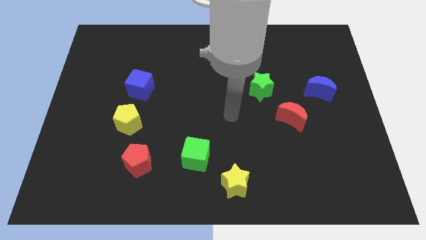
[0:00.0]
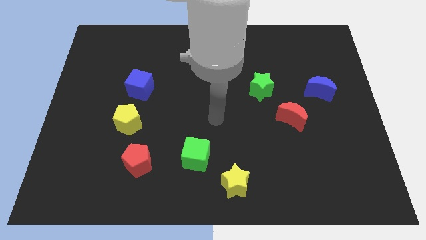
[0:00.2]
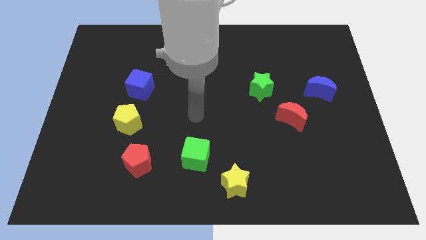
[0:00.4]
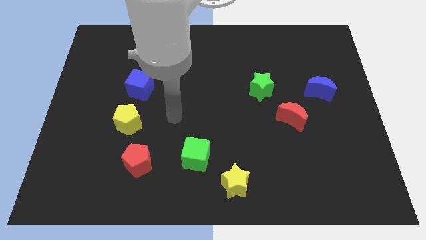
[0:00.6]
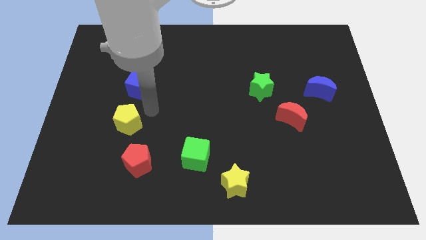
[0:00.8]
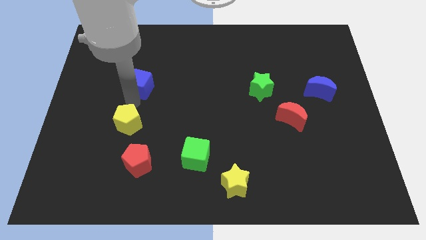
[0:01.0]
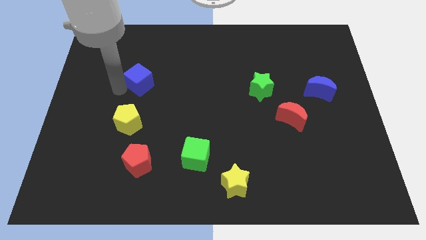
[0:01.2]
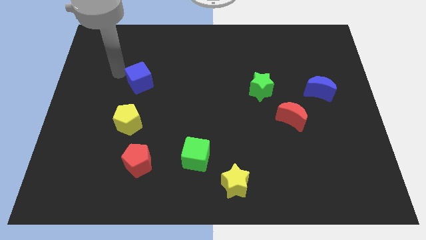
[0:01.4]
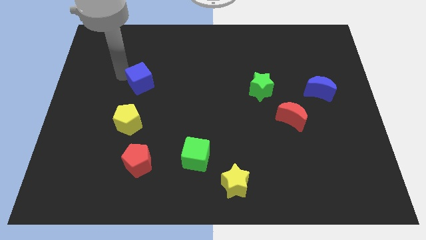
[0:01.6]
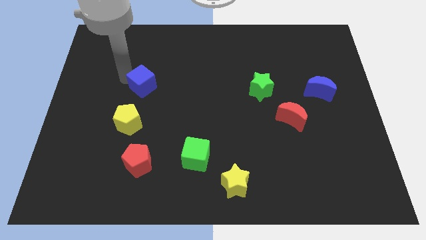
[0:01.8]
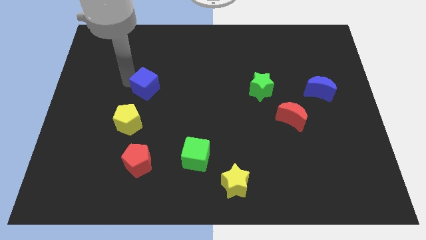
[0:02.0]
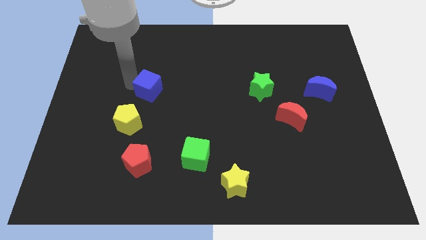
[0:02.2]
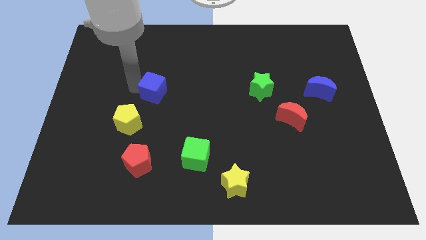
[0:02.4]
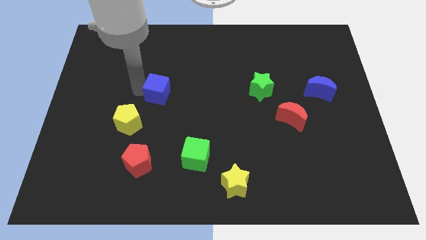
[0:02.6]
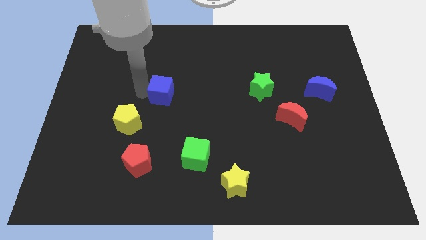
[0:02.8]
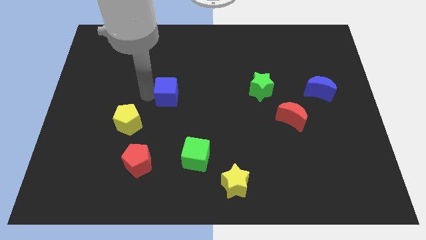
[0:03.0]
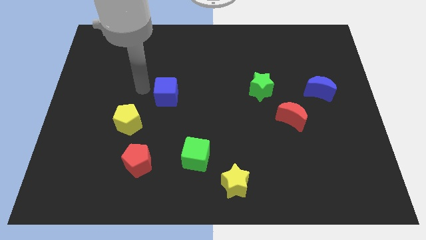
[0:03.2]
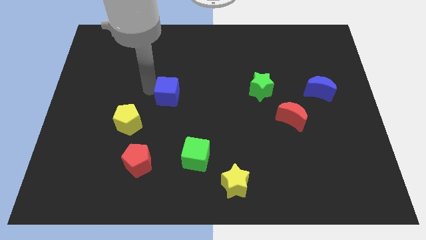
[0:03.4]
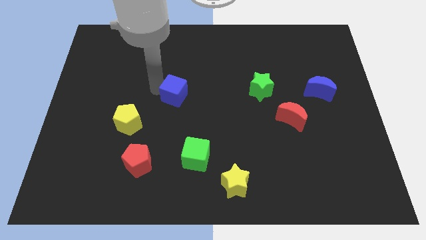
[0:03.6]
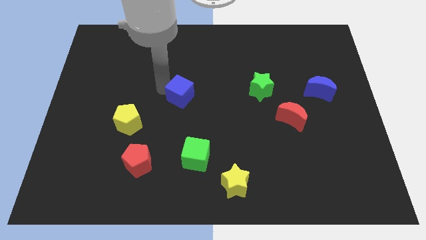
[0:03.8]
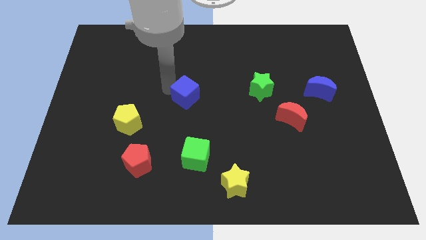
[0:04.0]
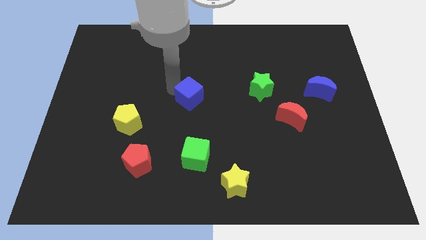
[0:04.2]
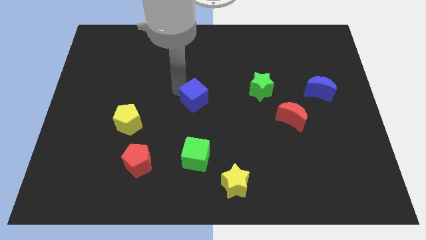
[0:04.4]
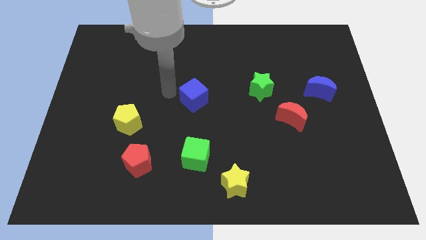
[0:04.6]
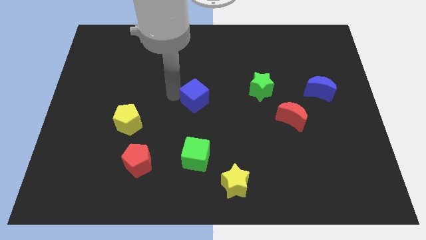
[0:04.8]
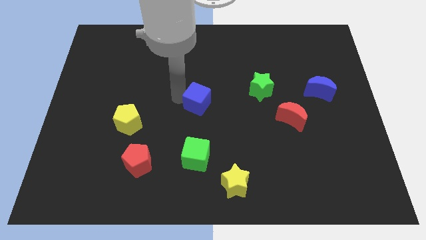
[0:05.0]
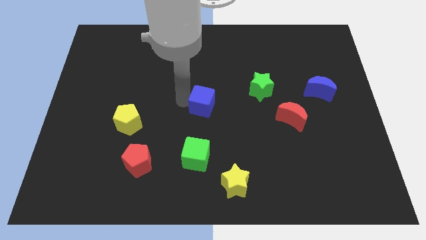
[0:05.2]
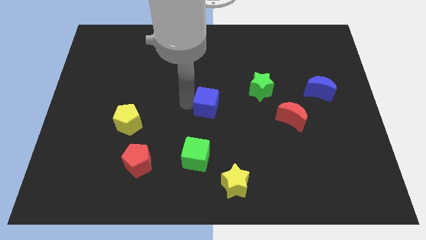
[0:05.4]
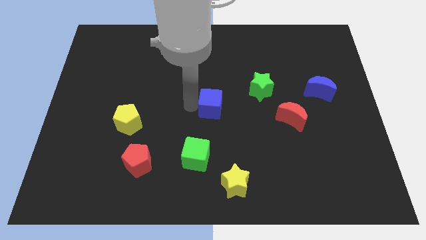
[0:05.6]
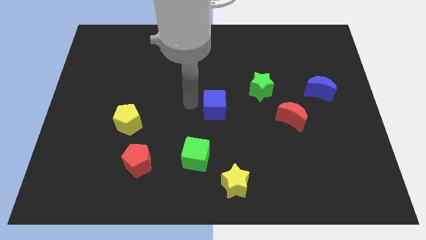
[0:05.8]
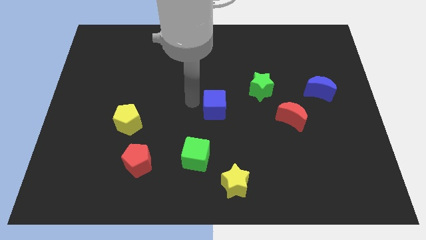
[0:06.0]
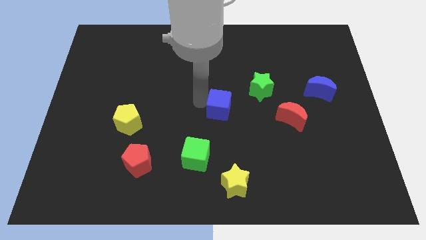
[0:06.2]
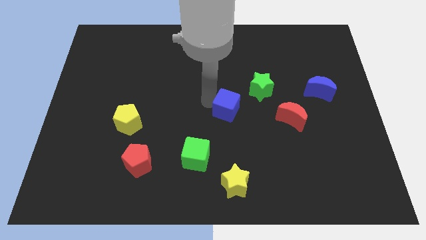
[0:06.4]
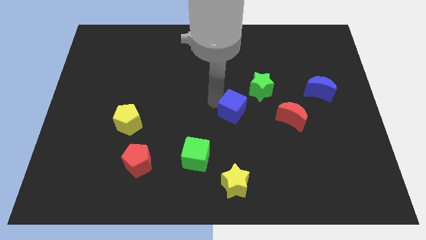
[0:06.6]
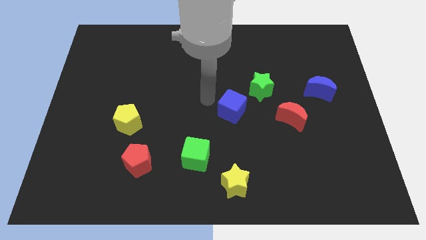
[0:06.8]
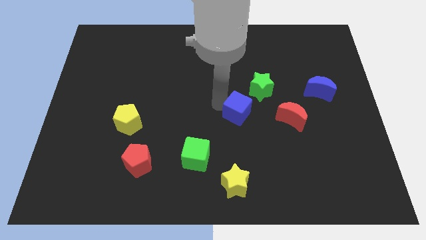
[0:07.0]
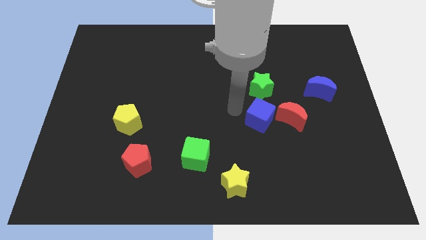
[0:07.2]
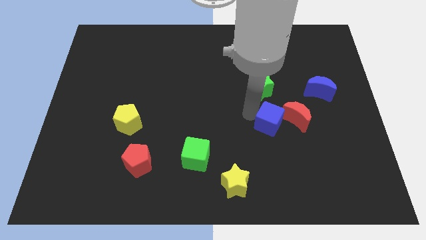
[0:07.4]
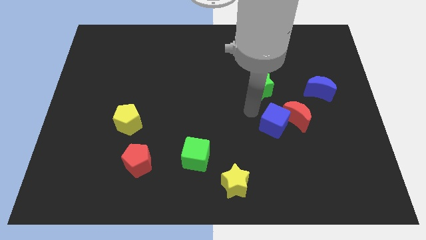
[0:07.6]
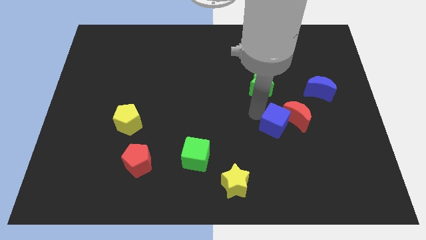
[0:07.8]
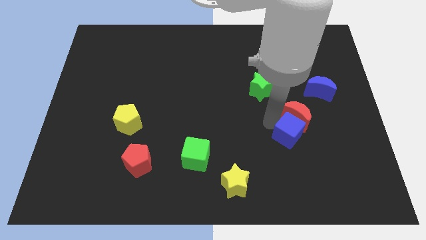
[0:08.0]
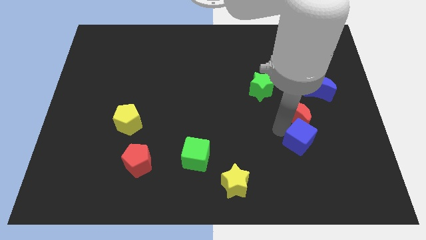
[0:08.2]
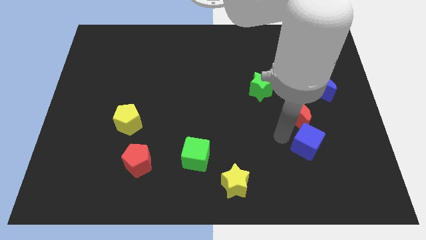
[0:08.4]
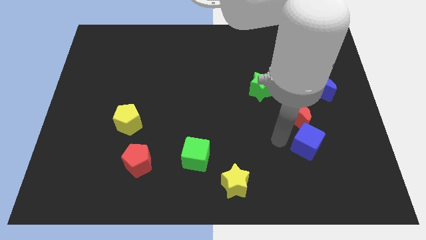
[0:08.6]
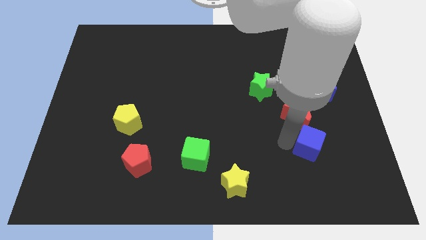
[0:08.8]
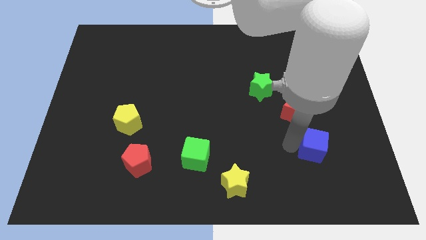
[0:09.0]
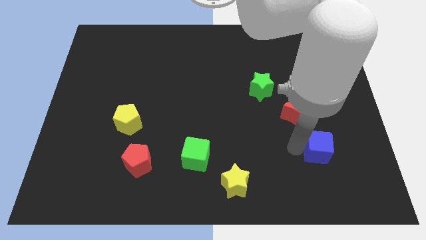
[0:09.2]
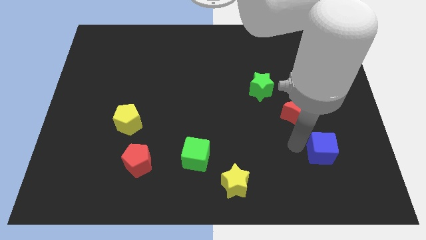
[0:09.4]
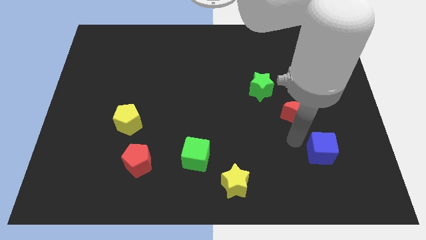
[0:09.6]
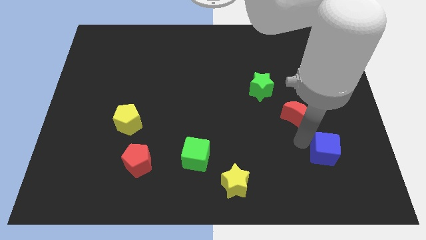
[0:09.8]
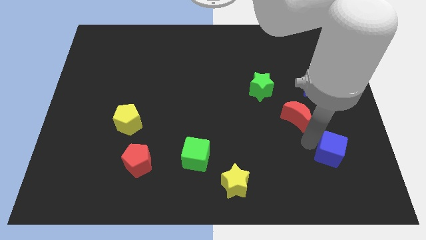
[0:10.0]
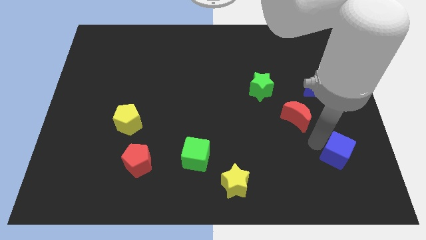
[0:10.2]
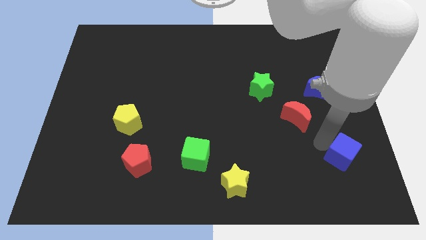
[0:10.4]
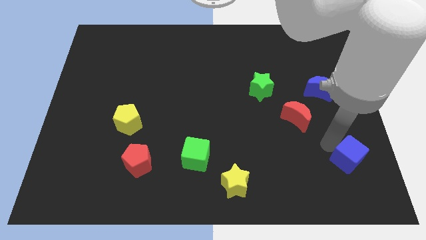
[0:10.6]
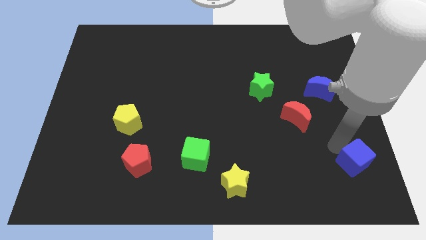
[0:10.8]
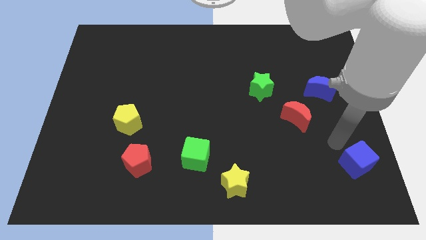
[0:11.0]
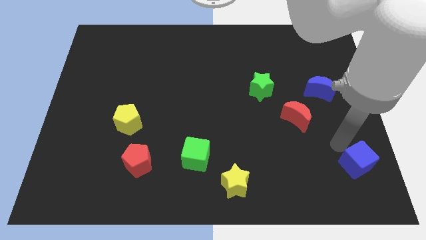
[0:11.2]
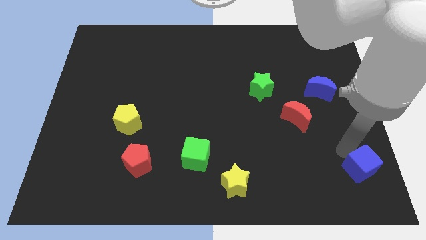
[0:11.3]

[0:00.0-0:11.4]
move the blue cube to the lower right corner

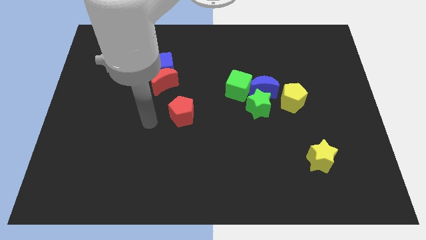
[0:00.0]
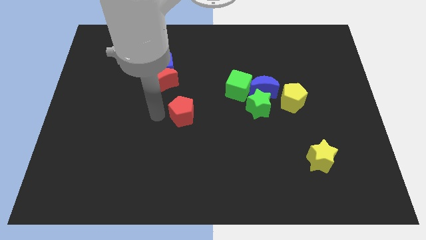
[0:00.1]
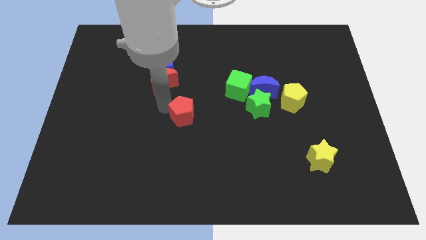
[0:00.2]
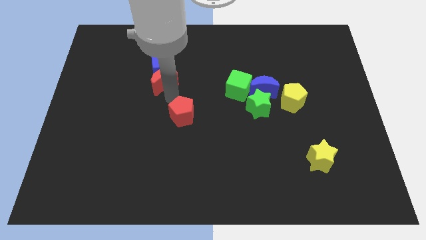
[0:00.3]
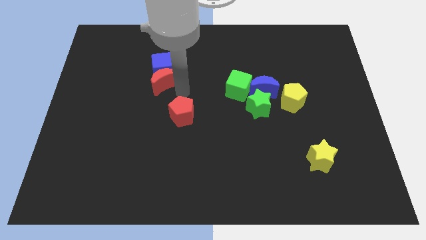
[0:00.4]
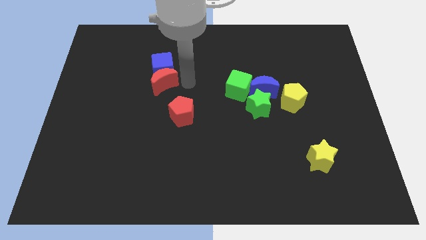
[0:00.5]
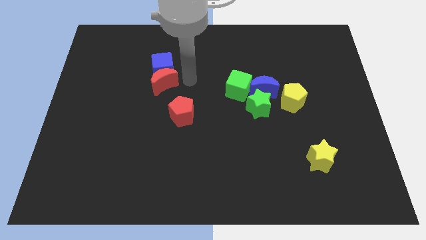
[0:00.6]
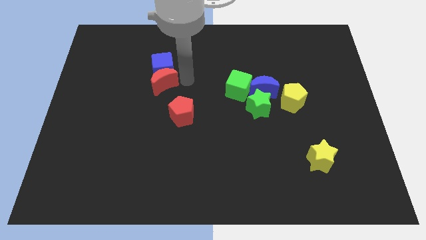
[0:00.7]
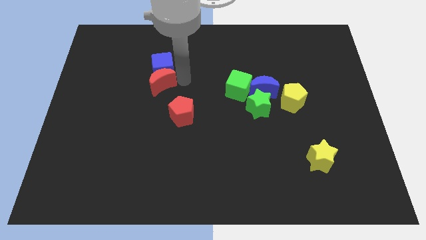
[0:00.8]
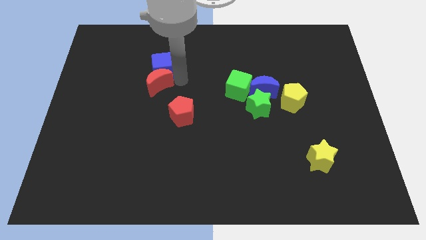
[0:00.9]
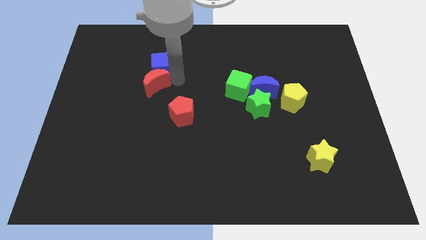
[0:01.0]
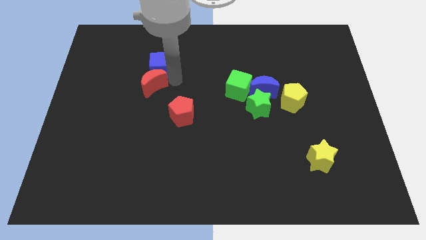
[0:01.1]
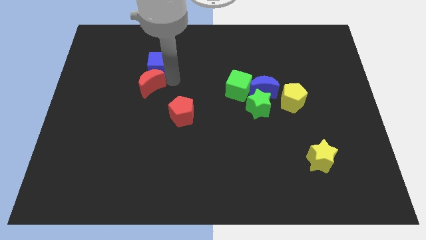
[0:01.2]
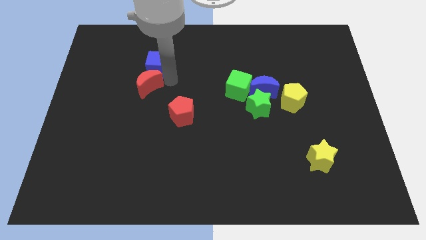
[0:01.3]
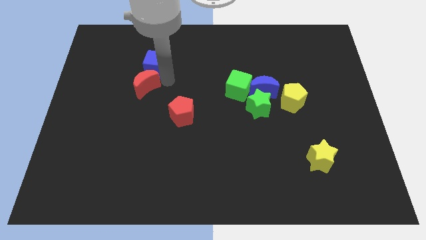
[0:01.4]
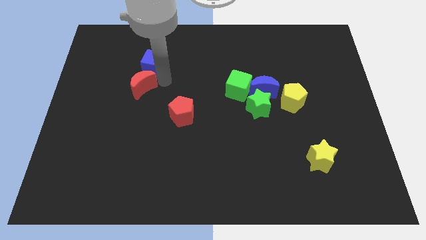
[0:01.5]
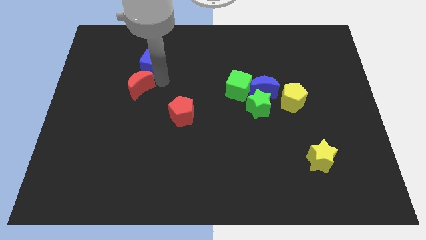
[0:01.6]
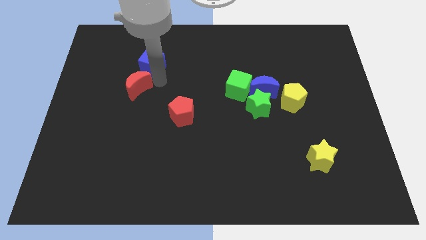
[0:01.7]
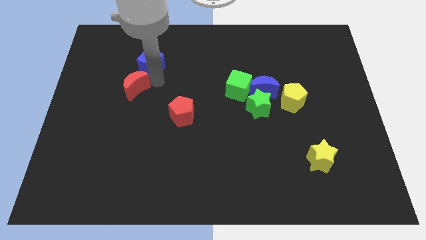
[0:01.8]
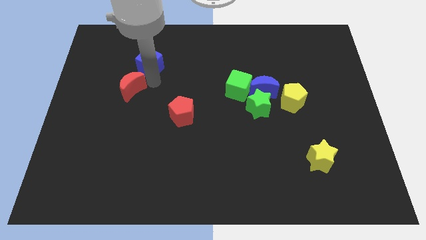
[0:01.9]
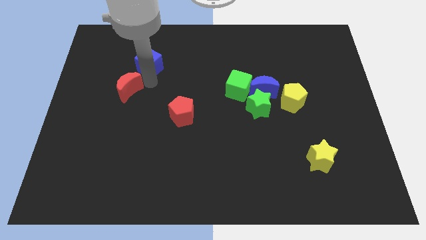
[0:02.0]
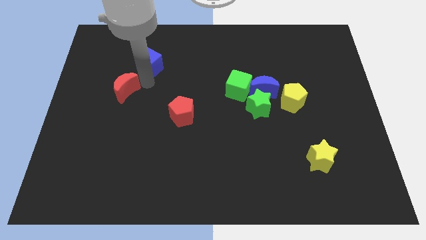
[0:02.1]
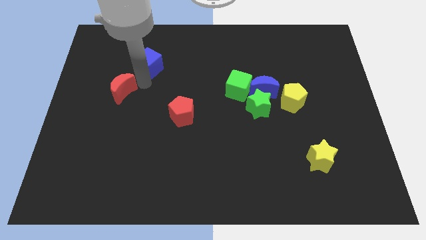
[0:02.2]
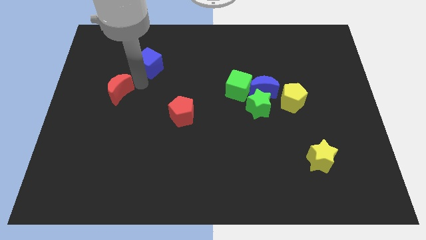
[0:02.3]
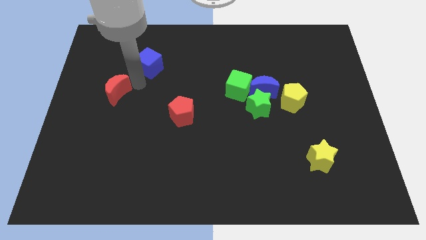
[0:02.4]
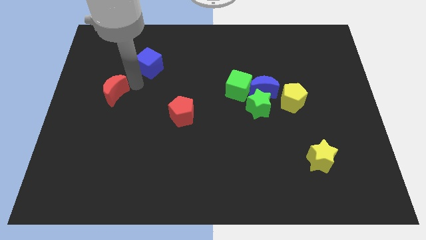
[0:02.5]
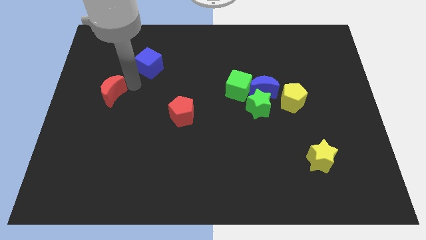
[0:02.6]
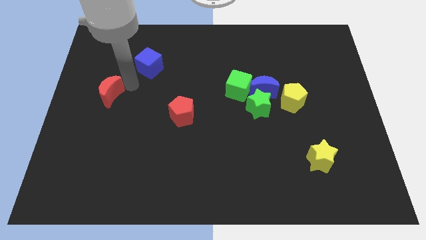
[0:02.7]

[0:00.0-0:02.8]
push the red moon to the left side
